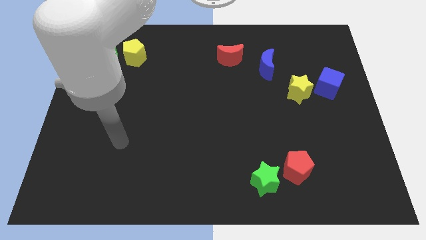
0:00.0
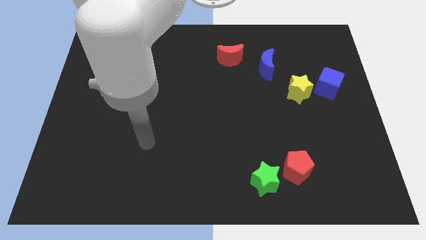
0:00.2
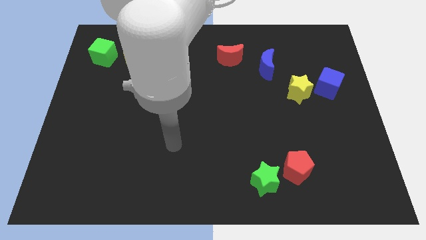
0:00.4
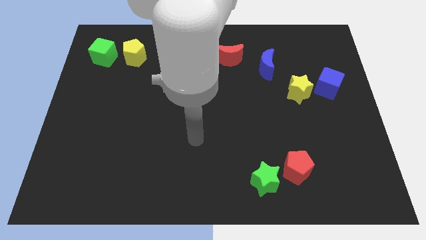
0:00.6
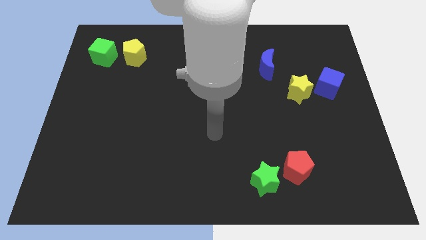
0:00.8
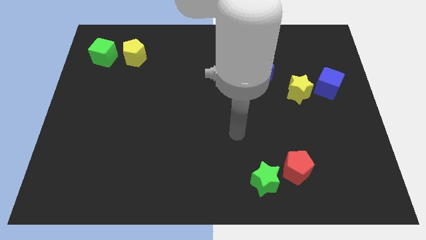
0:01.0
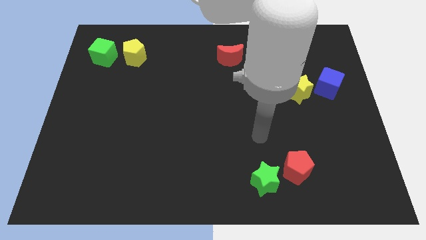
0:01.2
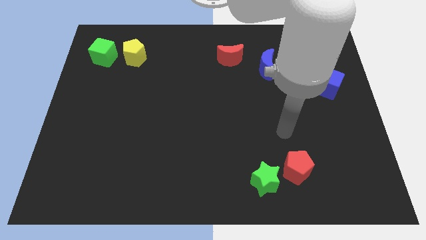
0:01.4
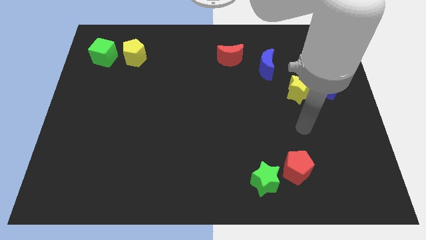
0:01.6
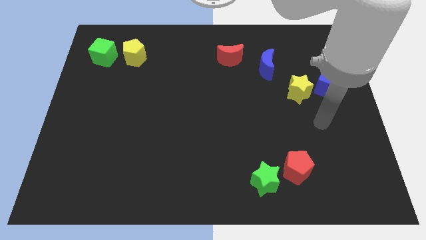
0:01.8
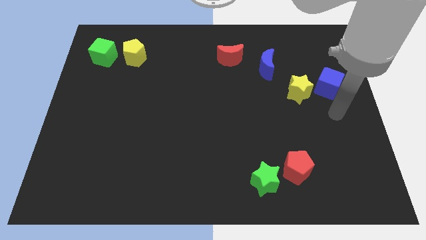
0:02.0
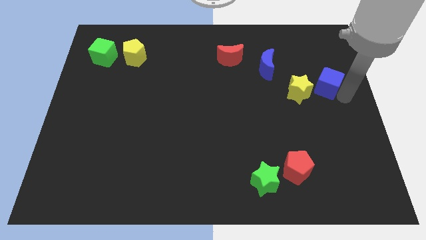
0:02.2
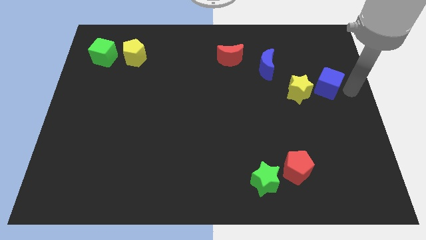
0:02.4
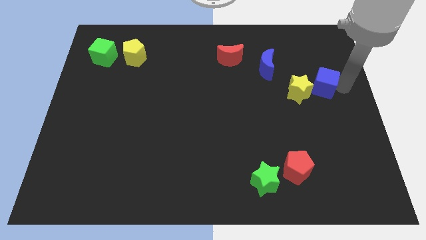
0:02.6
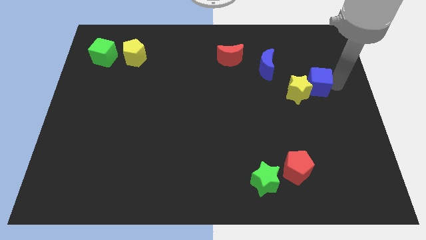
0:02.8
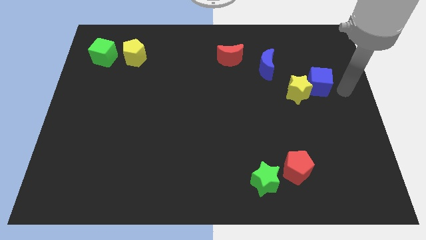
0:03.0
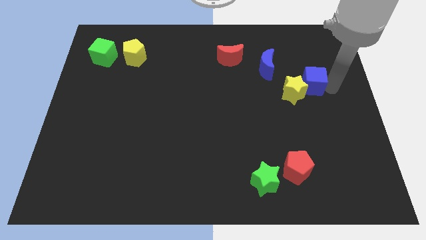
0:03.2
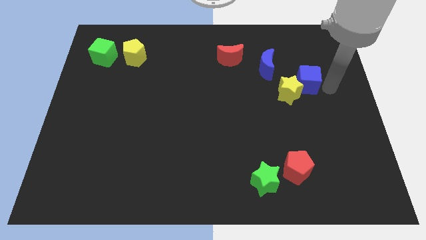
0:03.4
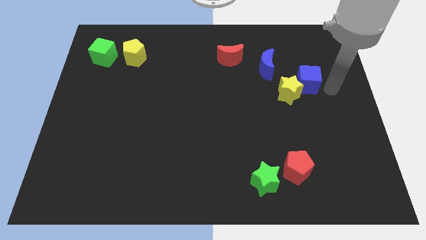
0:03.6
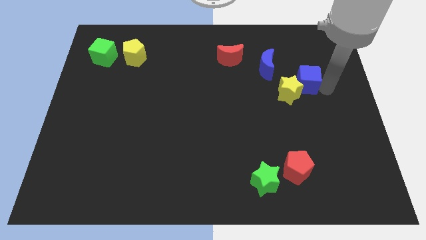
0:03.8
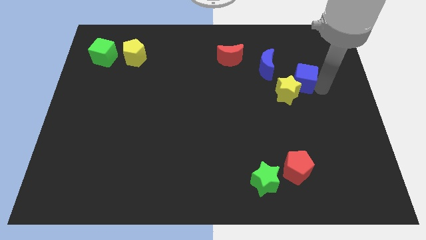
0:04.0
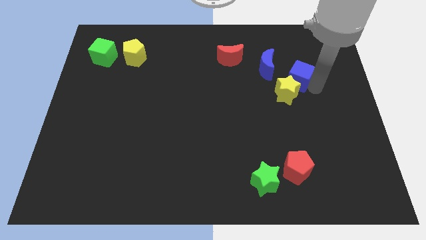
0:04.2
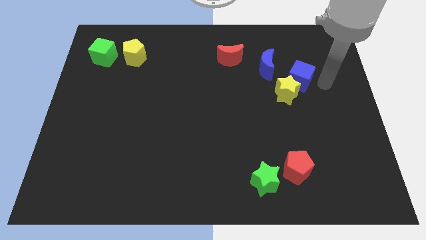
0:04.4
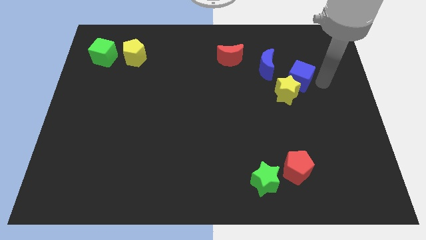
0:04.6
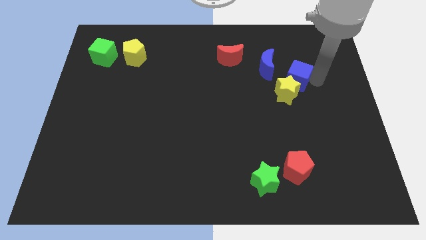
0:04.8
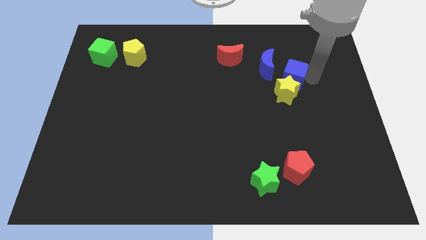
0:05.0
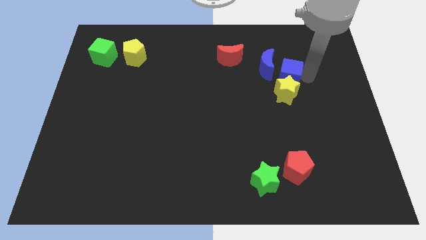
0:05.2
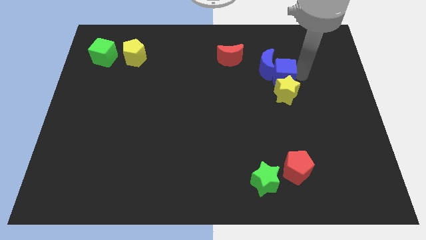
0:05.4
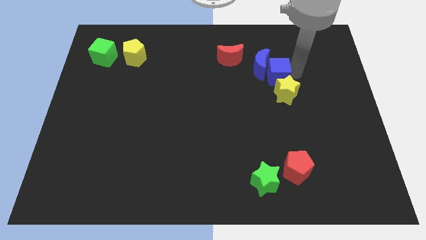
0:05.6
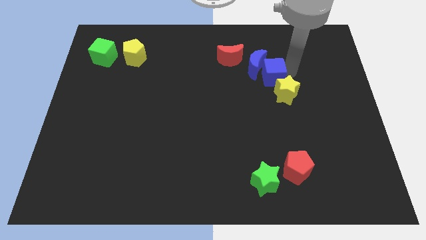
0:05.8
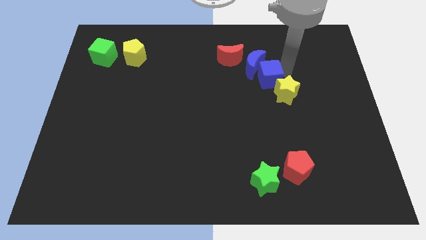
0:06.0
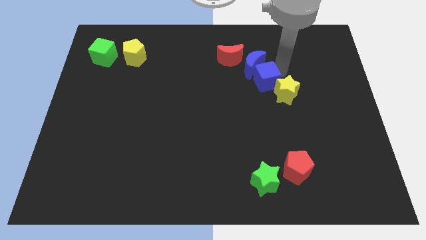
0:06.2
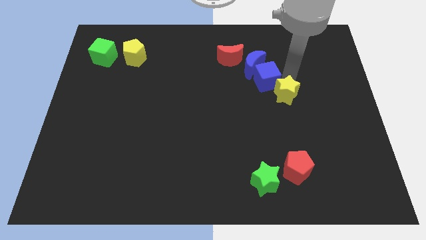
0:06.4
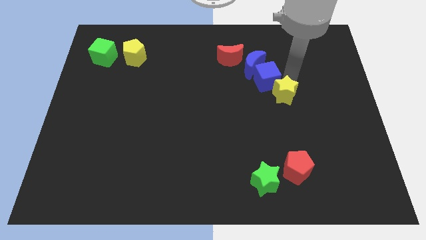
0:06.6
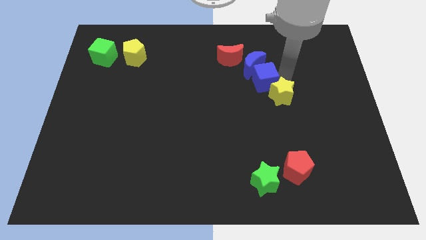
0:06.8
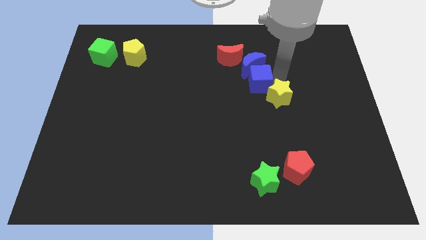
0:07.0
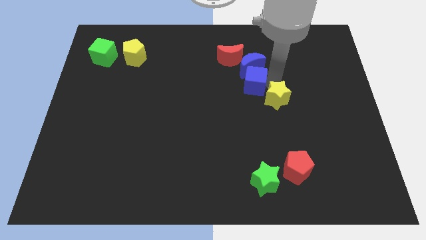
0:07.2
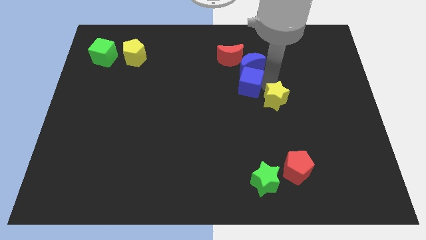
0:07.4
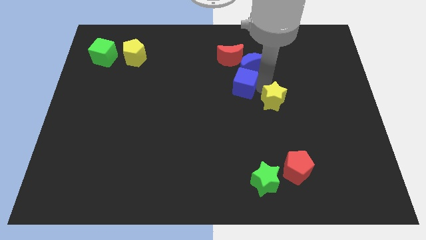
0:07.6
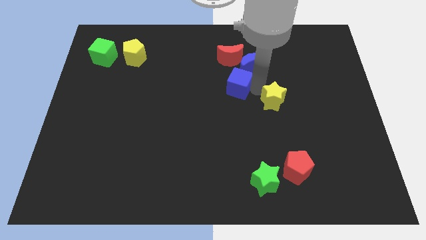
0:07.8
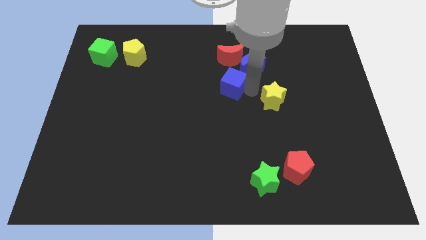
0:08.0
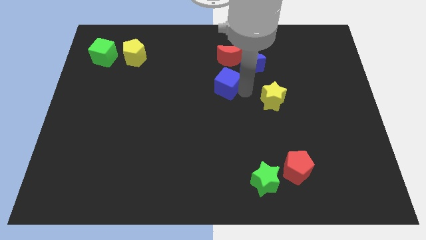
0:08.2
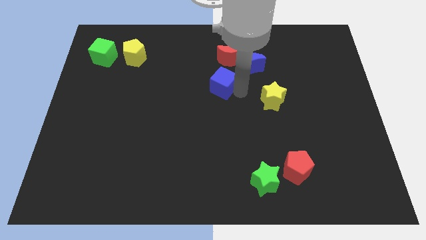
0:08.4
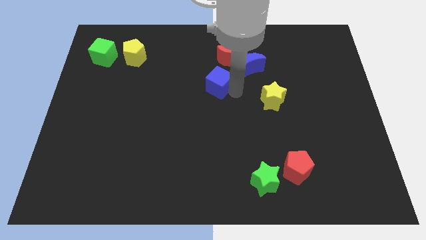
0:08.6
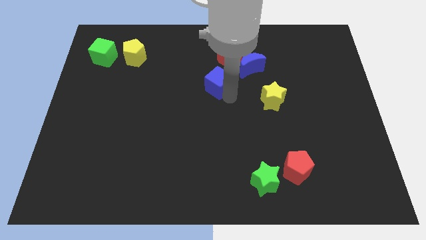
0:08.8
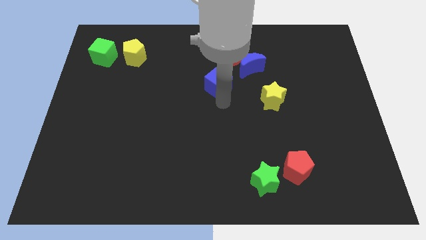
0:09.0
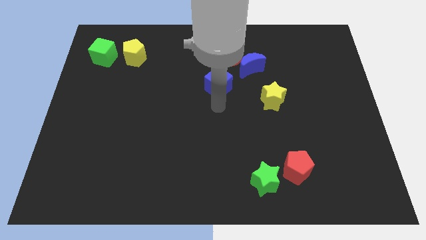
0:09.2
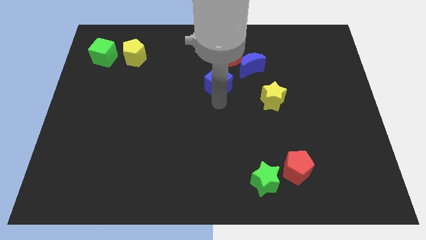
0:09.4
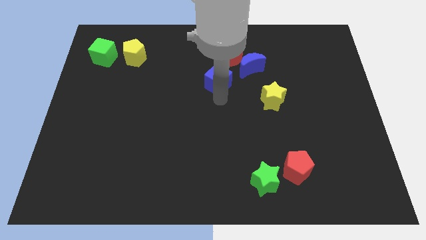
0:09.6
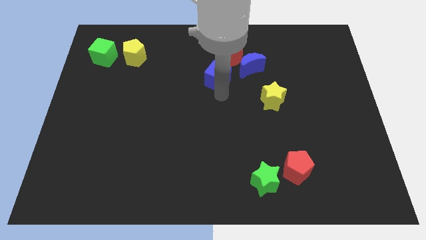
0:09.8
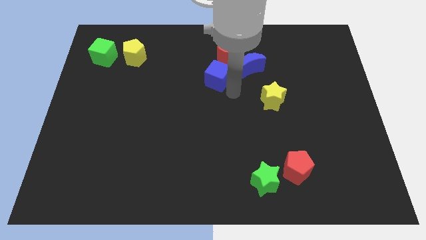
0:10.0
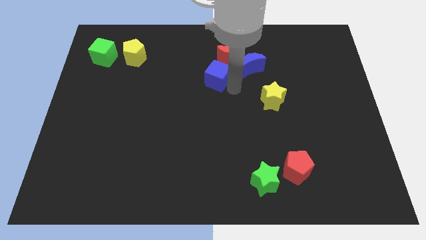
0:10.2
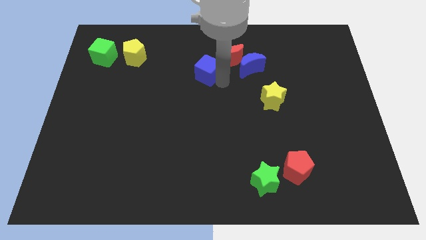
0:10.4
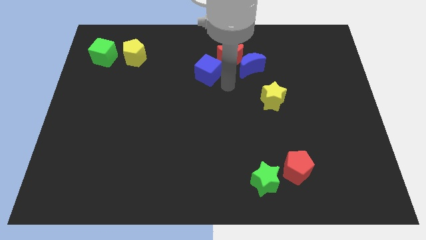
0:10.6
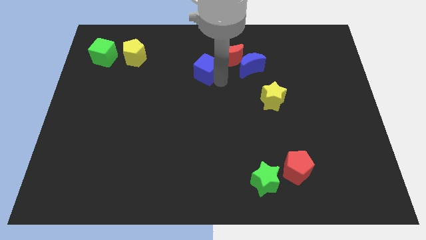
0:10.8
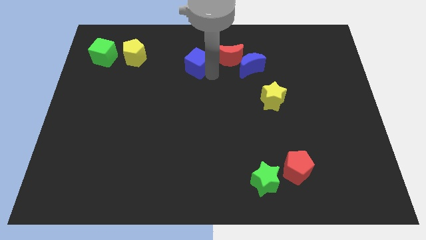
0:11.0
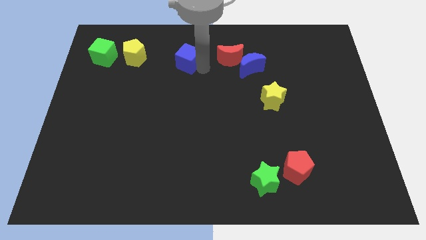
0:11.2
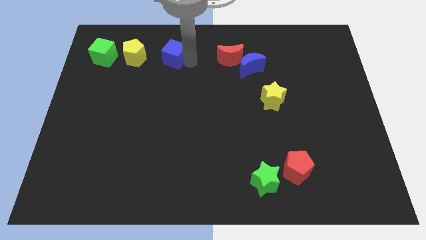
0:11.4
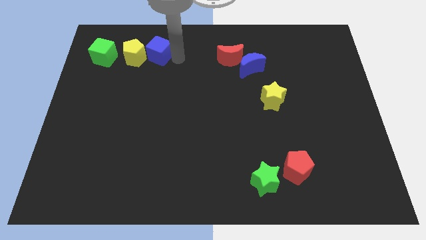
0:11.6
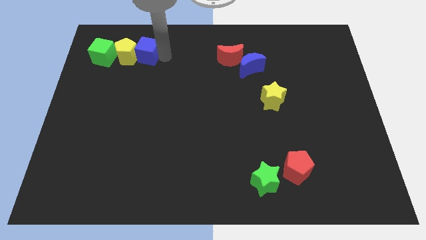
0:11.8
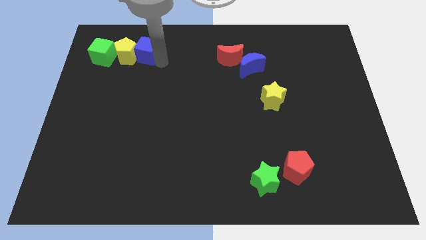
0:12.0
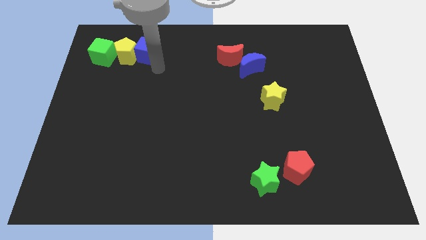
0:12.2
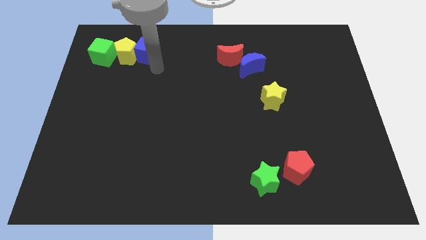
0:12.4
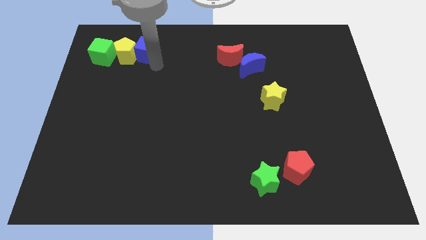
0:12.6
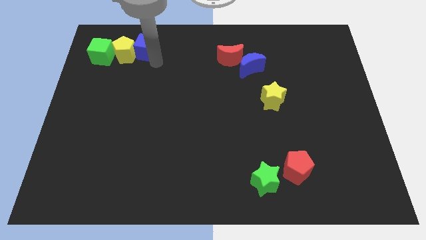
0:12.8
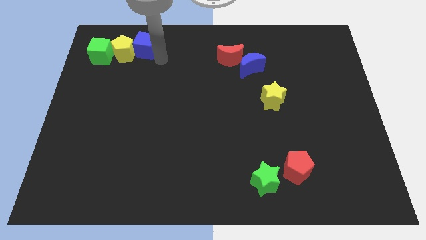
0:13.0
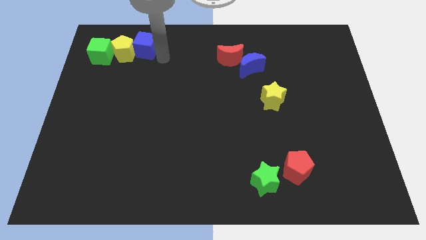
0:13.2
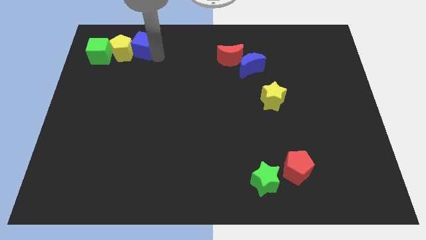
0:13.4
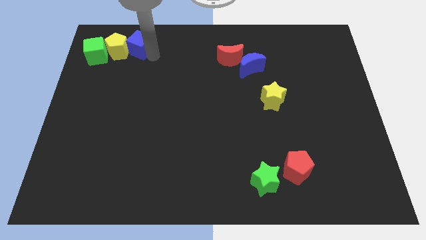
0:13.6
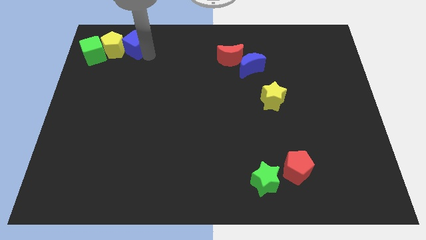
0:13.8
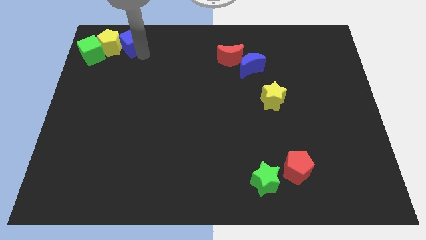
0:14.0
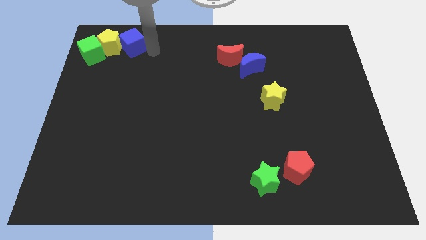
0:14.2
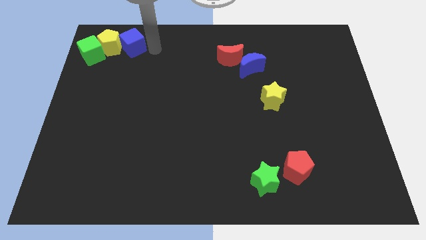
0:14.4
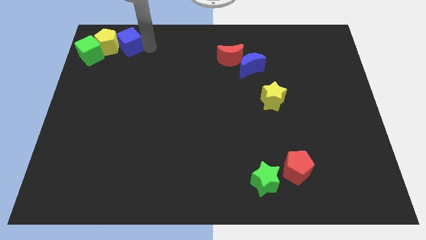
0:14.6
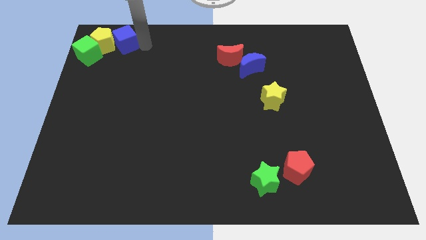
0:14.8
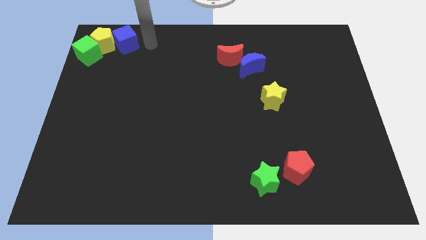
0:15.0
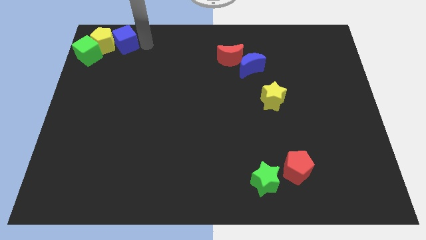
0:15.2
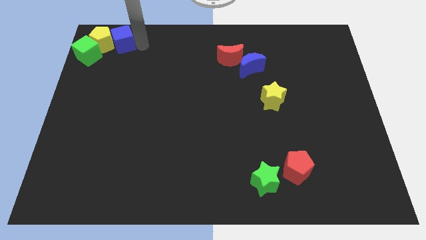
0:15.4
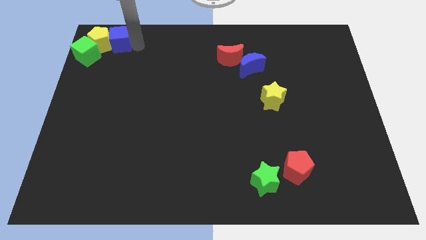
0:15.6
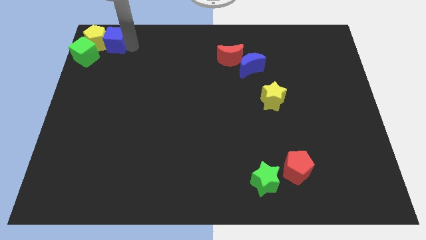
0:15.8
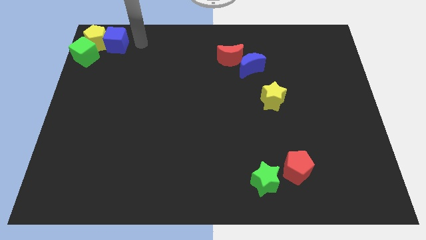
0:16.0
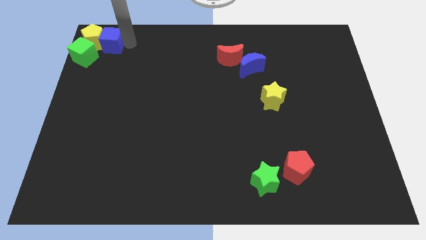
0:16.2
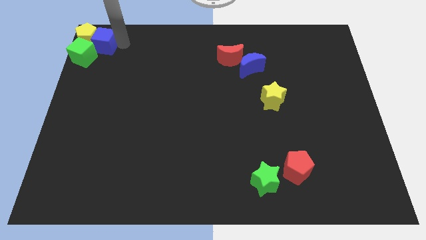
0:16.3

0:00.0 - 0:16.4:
move the blue cube to the top left of the board
